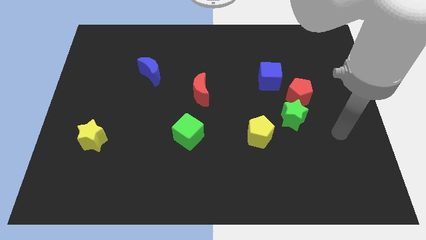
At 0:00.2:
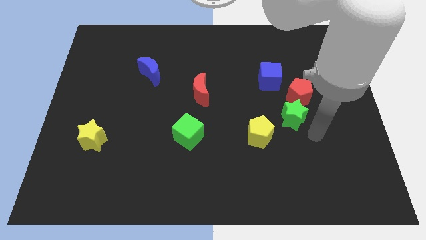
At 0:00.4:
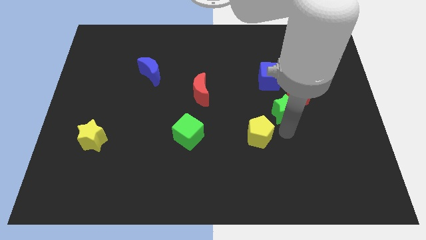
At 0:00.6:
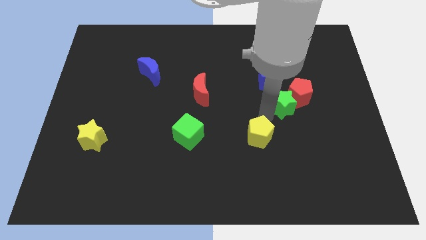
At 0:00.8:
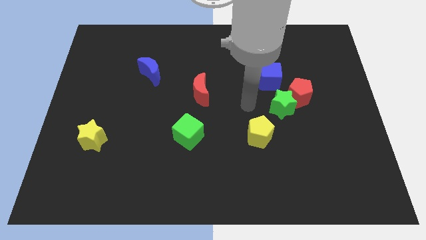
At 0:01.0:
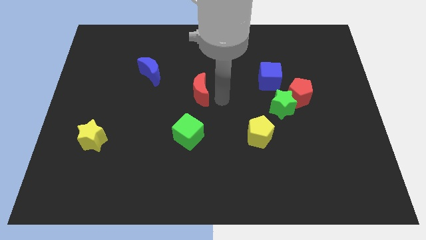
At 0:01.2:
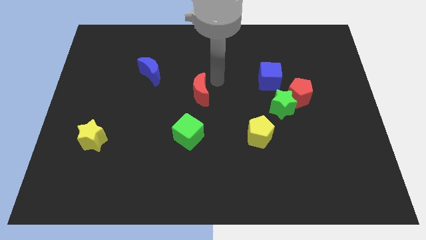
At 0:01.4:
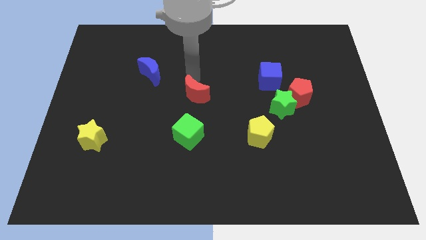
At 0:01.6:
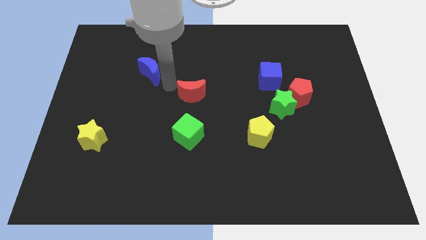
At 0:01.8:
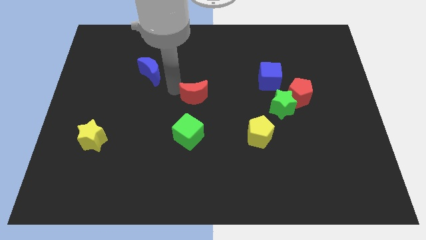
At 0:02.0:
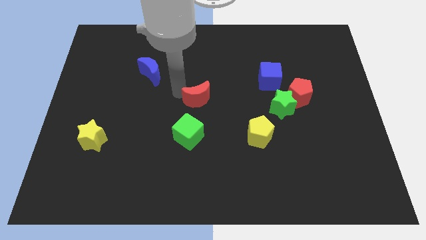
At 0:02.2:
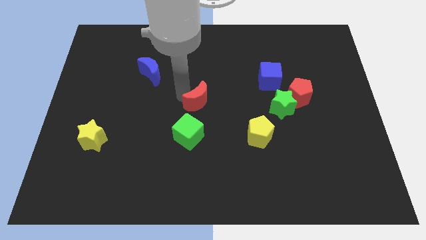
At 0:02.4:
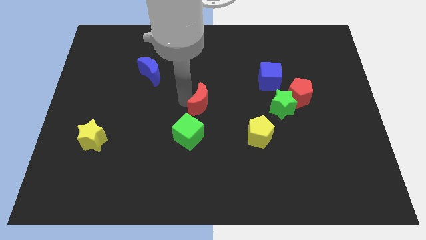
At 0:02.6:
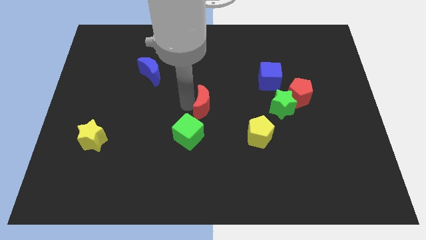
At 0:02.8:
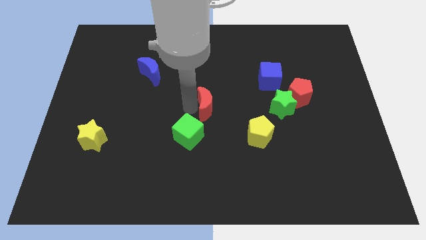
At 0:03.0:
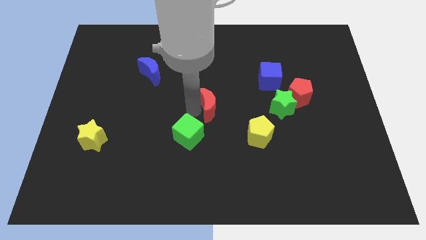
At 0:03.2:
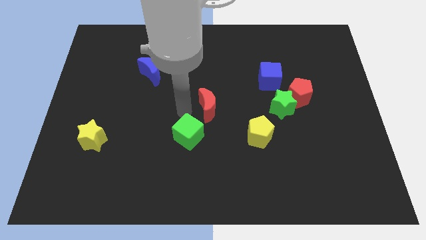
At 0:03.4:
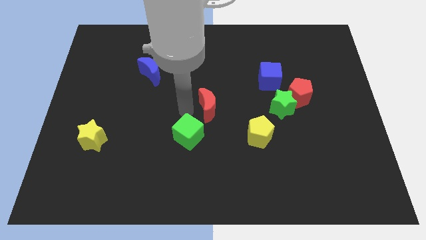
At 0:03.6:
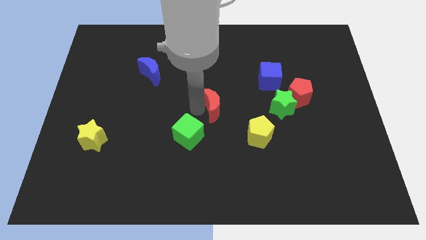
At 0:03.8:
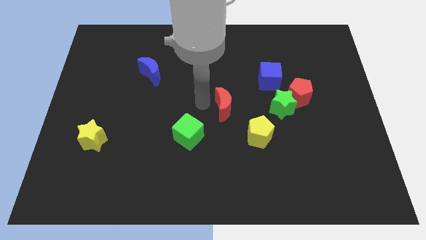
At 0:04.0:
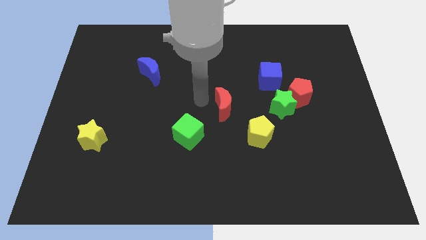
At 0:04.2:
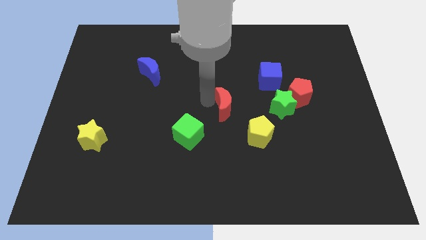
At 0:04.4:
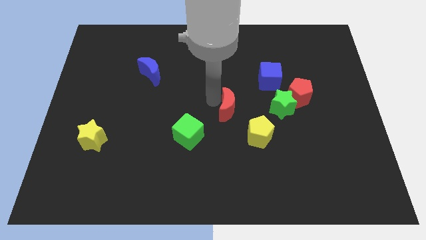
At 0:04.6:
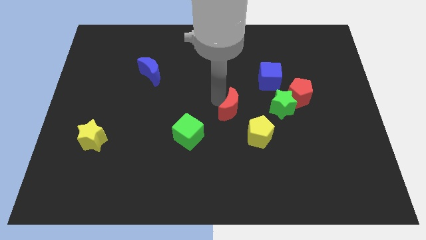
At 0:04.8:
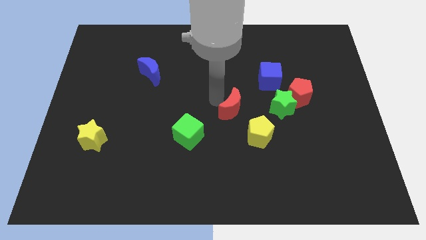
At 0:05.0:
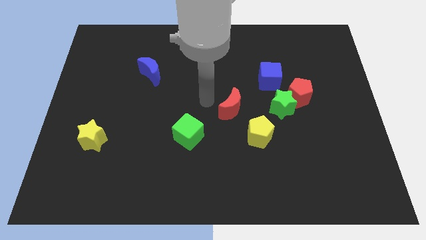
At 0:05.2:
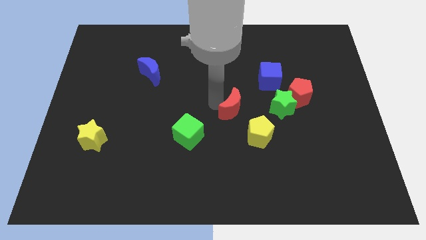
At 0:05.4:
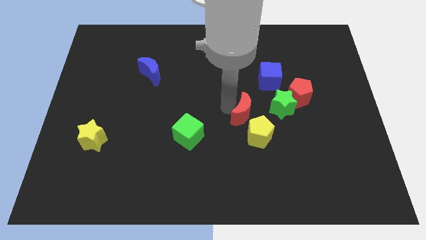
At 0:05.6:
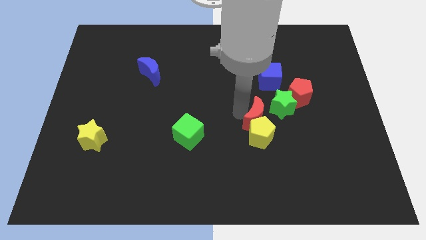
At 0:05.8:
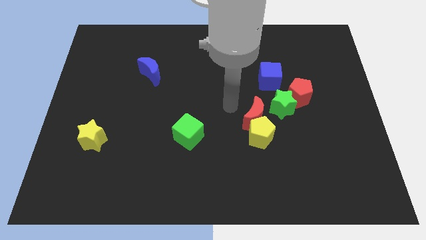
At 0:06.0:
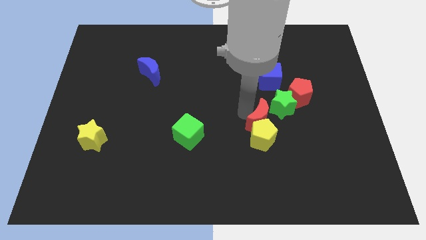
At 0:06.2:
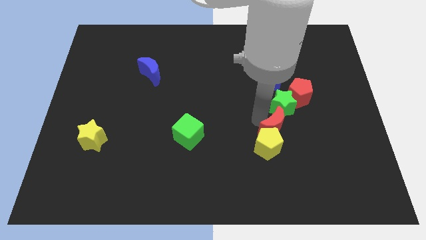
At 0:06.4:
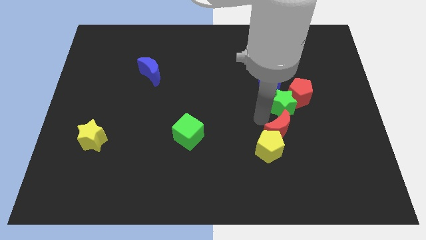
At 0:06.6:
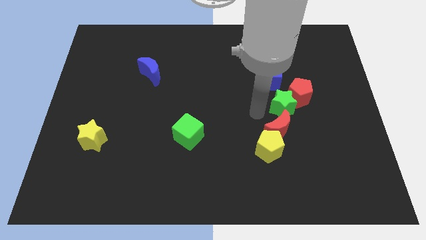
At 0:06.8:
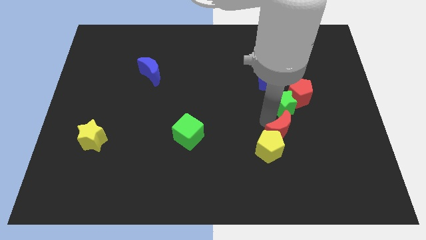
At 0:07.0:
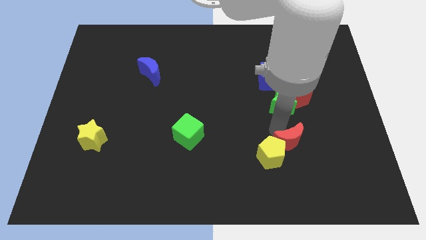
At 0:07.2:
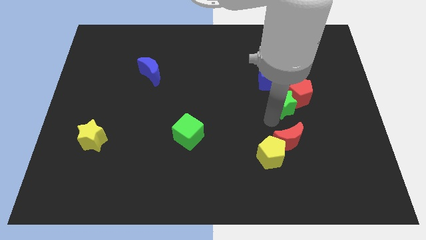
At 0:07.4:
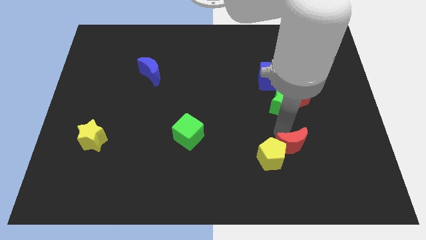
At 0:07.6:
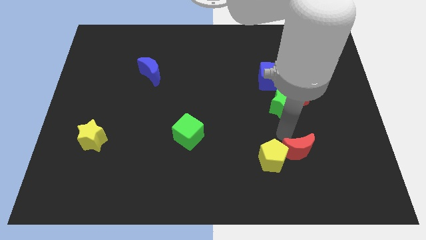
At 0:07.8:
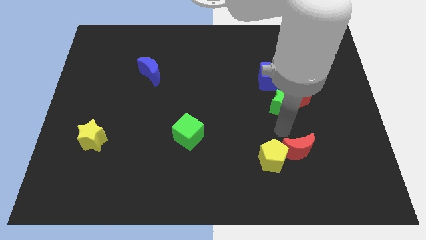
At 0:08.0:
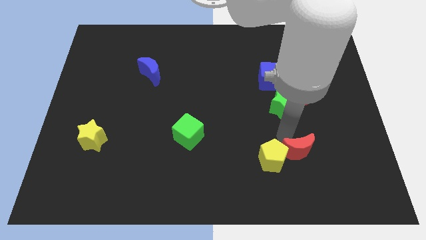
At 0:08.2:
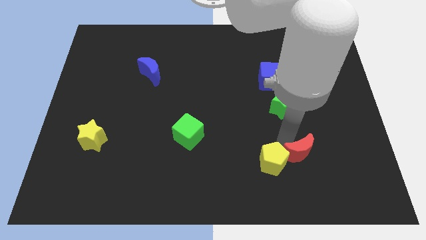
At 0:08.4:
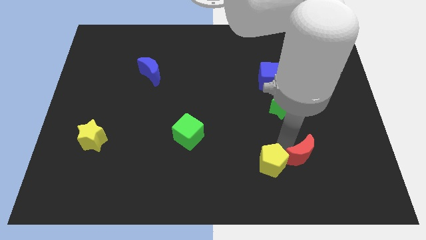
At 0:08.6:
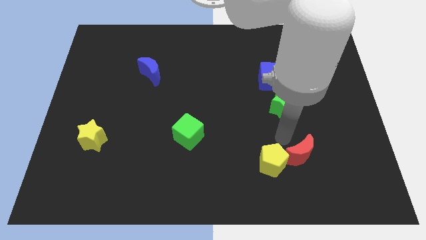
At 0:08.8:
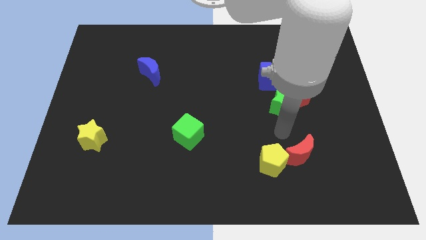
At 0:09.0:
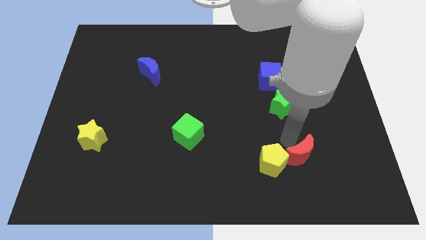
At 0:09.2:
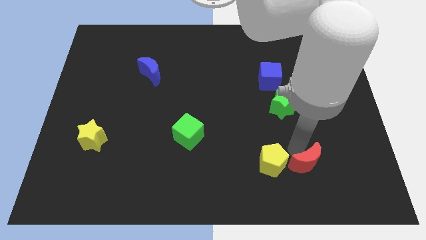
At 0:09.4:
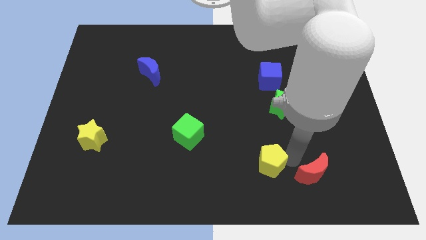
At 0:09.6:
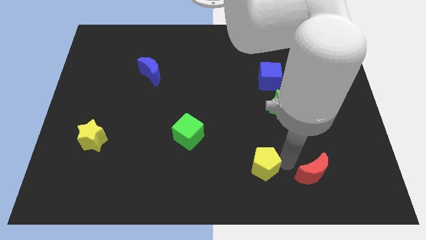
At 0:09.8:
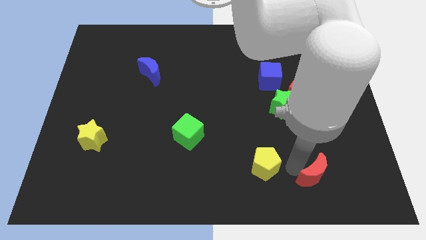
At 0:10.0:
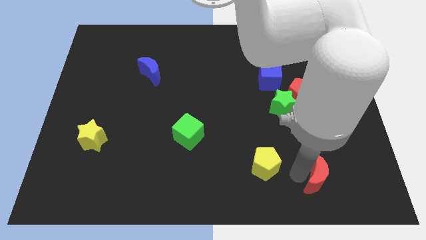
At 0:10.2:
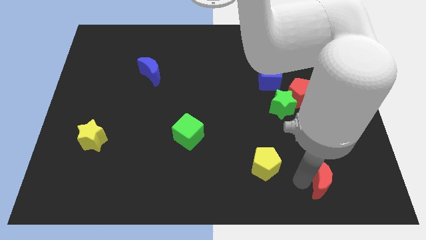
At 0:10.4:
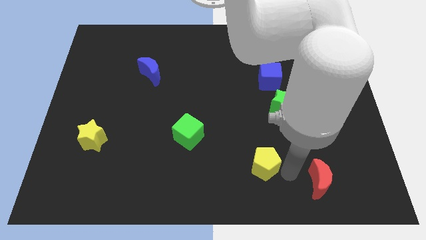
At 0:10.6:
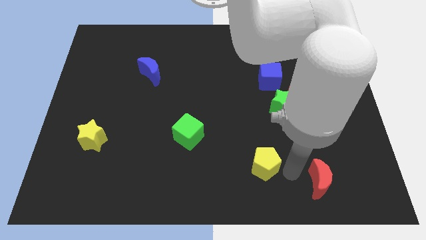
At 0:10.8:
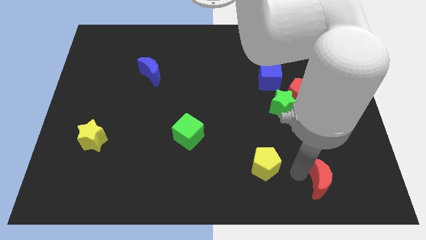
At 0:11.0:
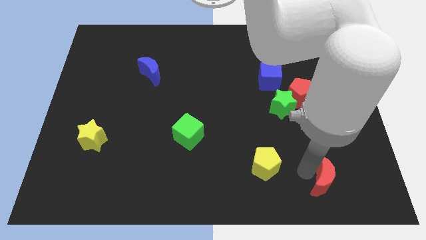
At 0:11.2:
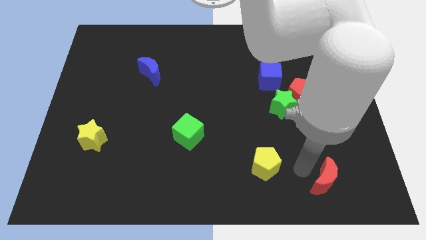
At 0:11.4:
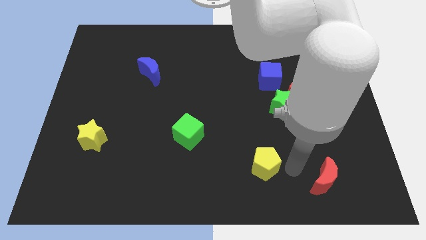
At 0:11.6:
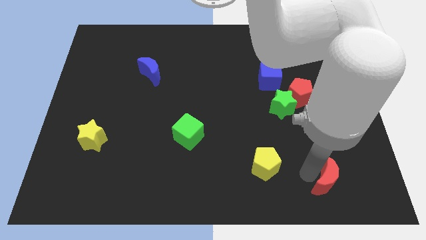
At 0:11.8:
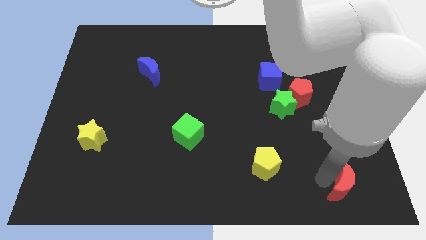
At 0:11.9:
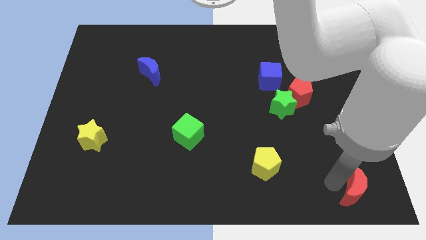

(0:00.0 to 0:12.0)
move the red moon to the bottom right corner
